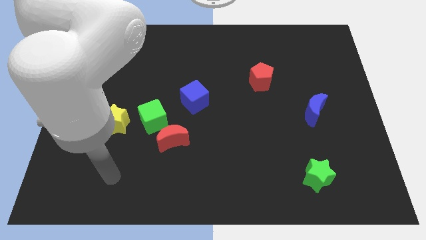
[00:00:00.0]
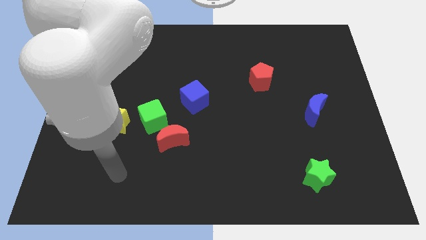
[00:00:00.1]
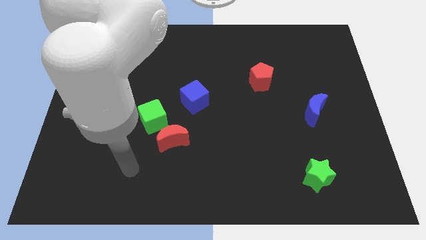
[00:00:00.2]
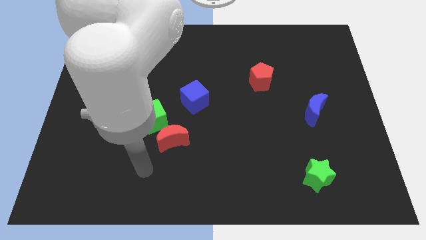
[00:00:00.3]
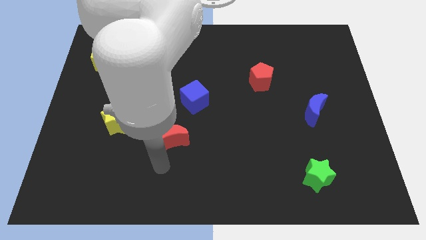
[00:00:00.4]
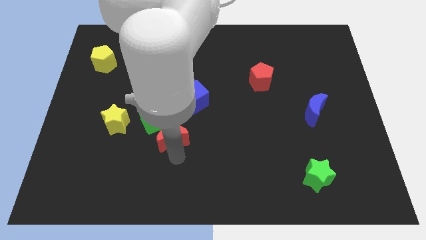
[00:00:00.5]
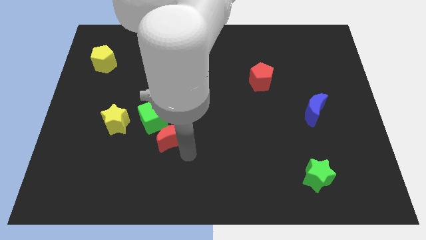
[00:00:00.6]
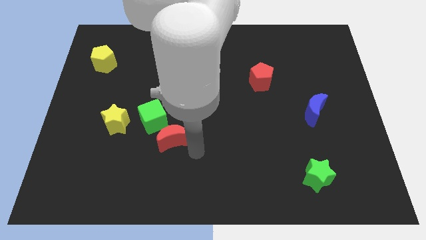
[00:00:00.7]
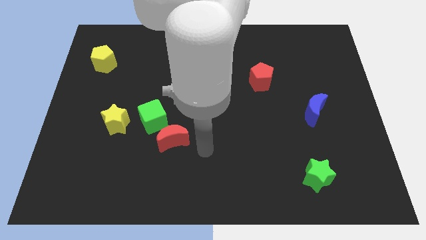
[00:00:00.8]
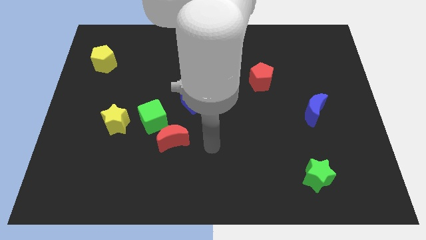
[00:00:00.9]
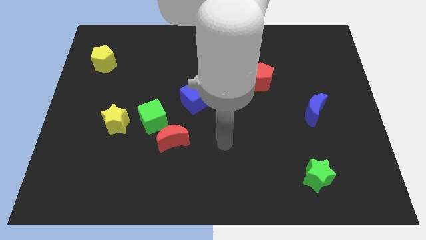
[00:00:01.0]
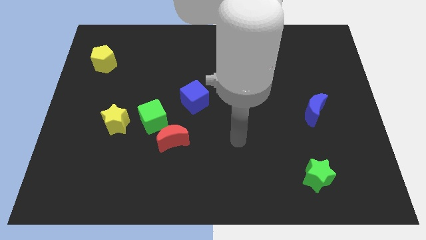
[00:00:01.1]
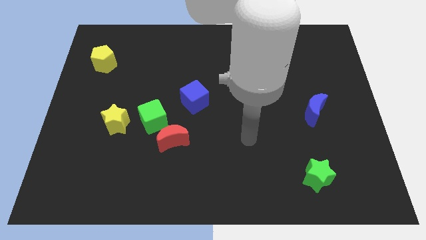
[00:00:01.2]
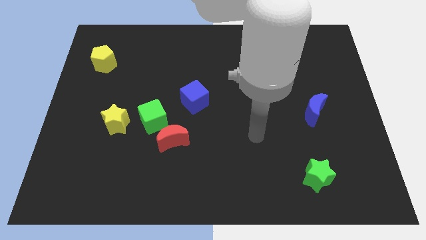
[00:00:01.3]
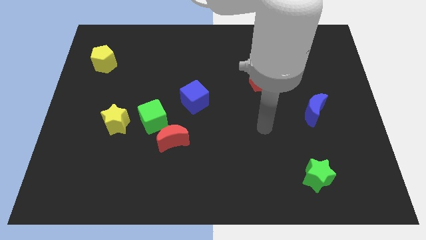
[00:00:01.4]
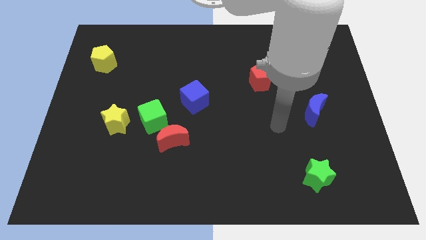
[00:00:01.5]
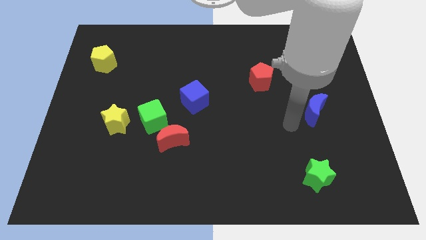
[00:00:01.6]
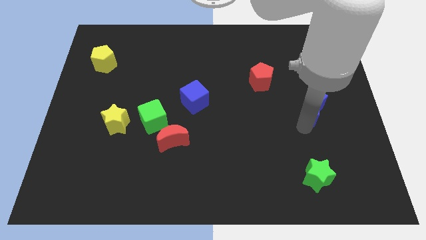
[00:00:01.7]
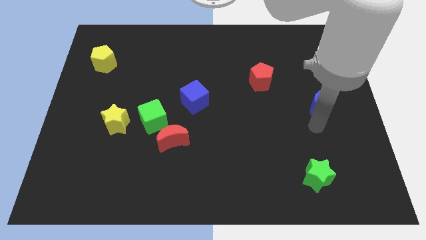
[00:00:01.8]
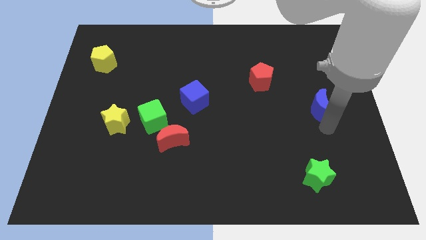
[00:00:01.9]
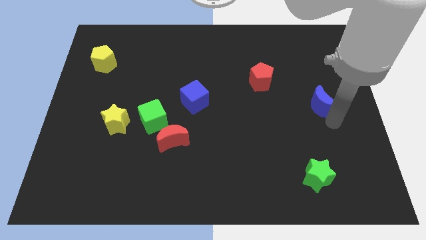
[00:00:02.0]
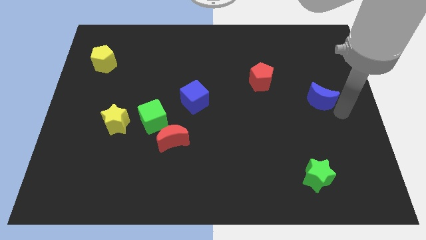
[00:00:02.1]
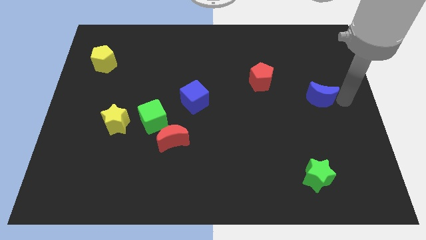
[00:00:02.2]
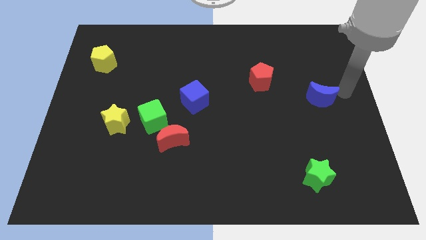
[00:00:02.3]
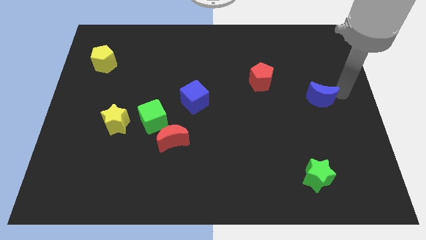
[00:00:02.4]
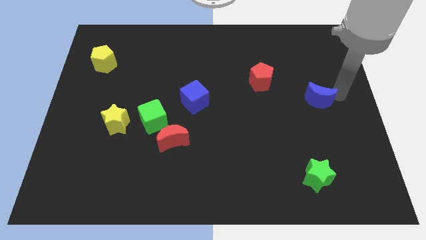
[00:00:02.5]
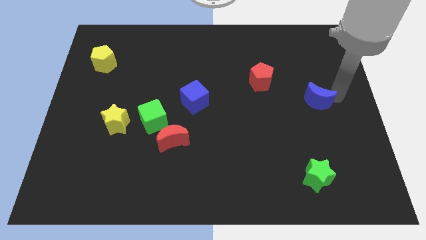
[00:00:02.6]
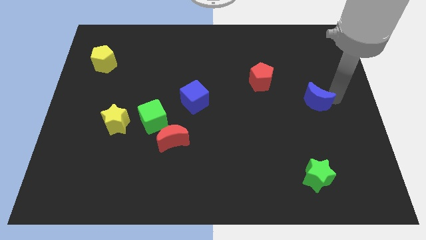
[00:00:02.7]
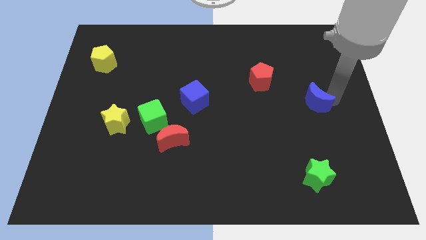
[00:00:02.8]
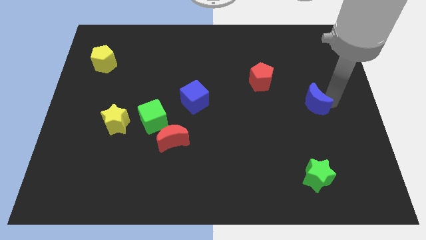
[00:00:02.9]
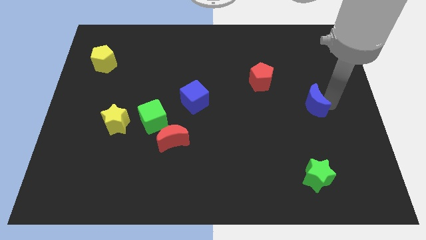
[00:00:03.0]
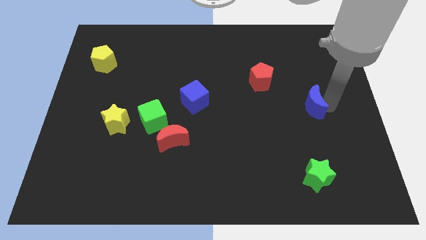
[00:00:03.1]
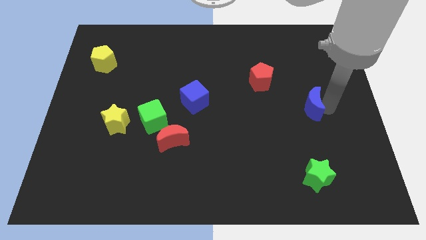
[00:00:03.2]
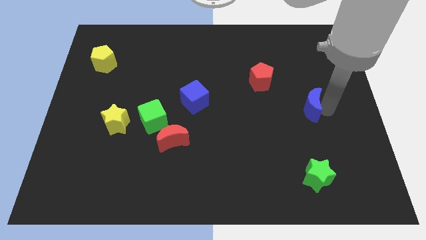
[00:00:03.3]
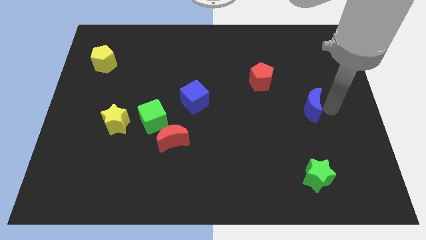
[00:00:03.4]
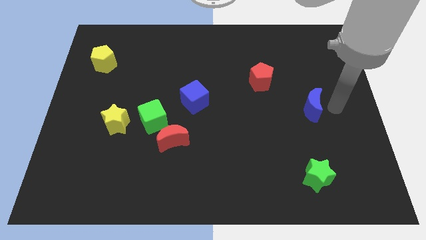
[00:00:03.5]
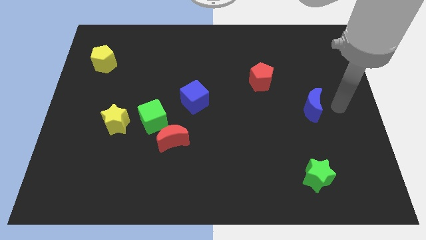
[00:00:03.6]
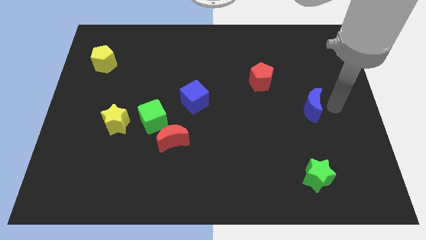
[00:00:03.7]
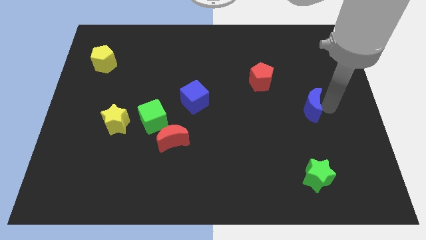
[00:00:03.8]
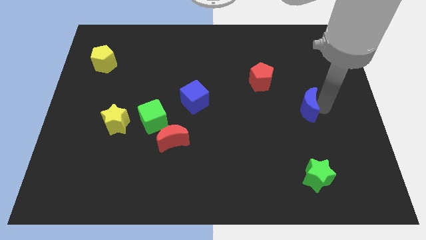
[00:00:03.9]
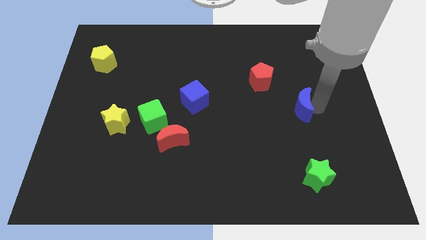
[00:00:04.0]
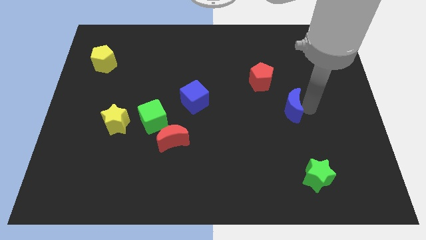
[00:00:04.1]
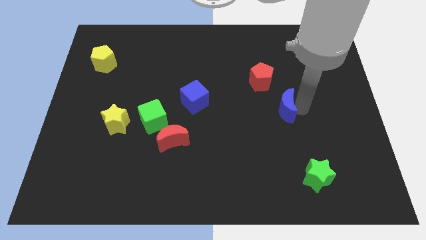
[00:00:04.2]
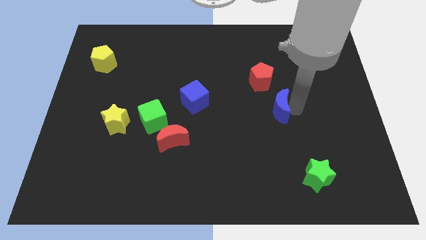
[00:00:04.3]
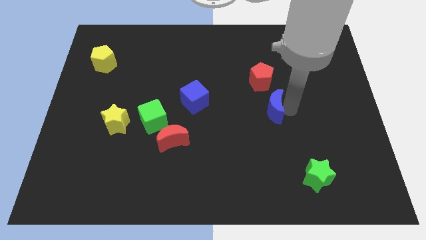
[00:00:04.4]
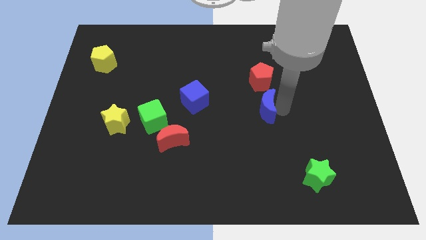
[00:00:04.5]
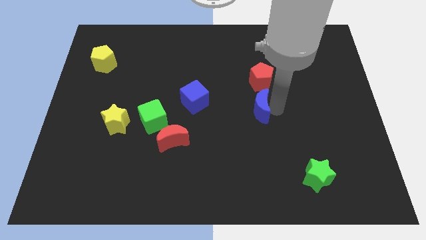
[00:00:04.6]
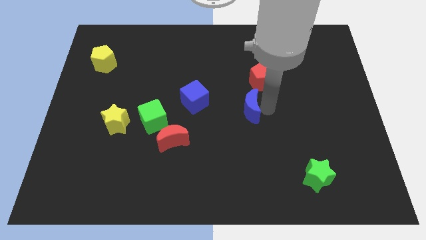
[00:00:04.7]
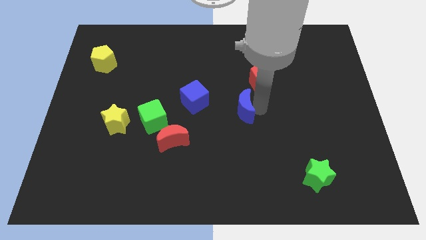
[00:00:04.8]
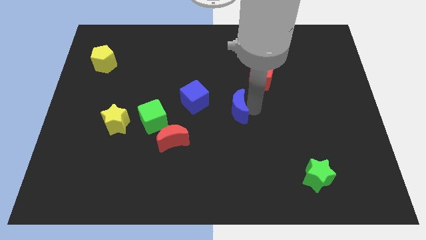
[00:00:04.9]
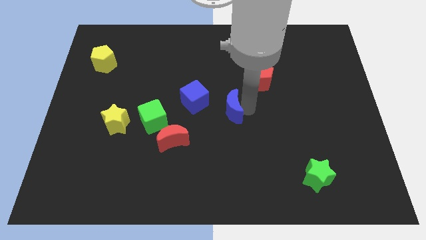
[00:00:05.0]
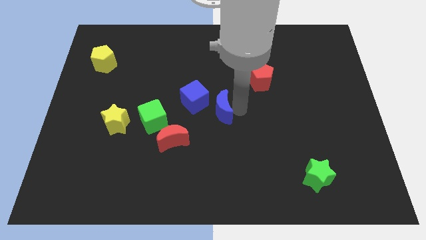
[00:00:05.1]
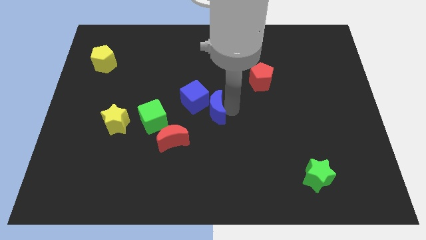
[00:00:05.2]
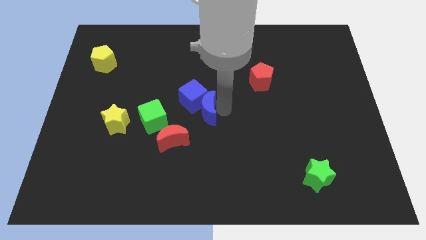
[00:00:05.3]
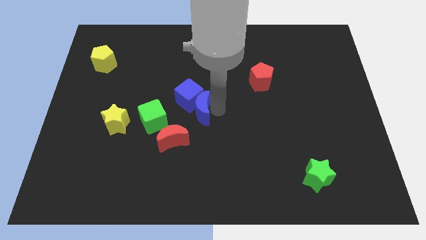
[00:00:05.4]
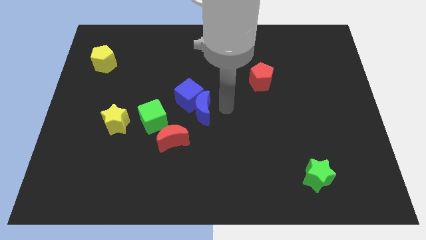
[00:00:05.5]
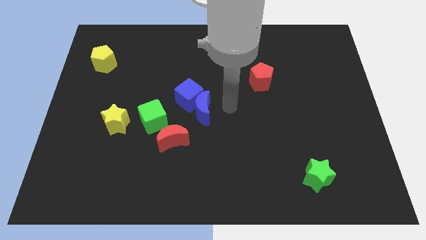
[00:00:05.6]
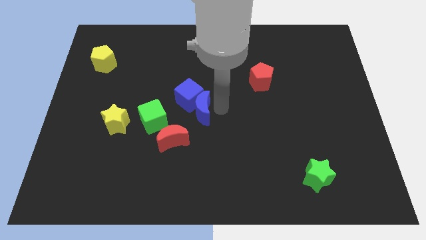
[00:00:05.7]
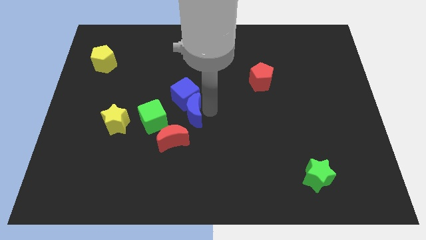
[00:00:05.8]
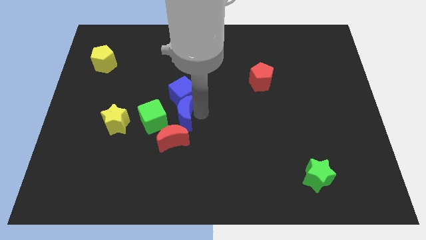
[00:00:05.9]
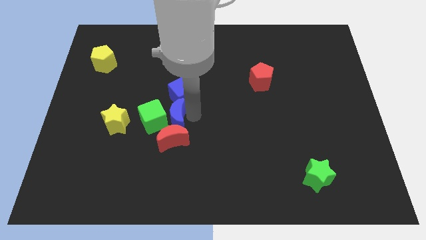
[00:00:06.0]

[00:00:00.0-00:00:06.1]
put the blue moon close to the green cube
